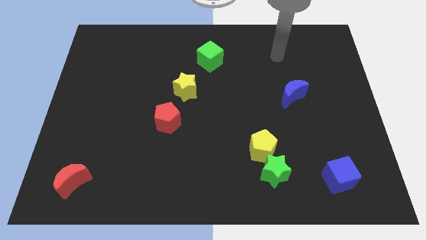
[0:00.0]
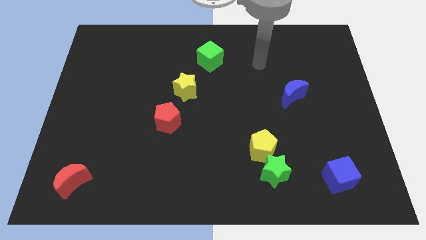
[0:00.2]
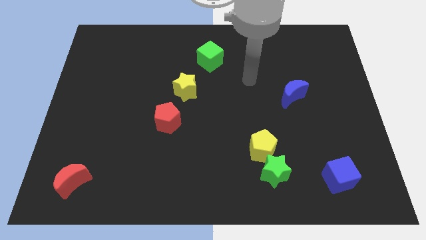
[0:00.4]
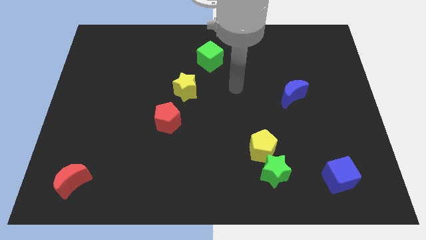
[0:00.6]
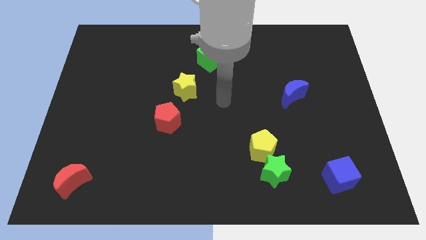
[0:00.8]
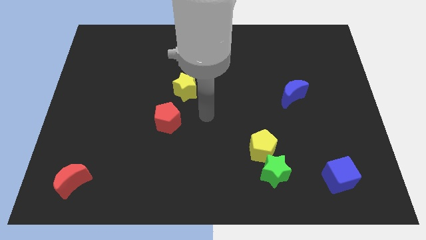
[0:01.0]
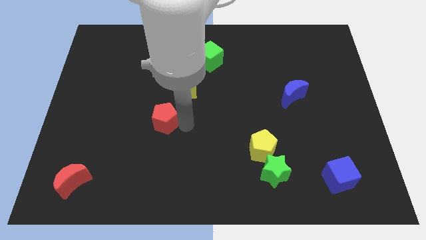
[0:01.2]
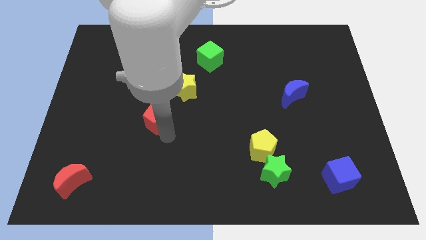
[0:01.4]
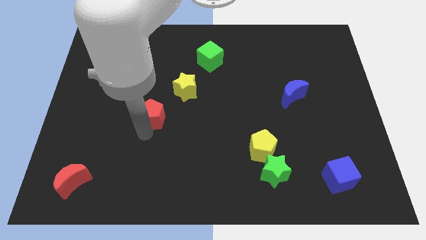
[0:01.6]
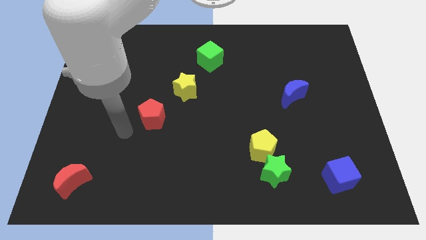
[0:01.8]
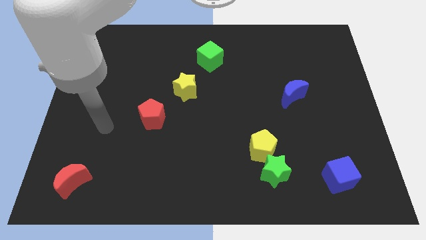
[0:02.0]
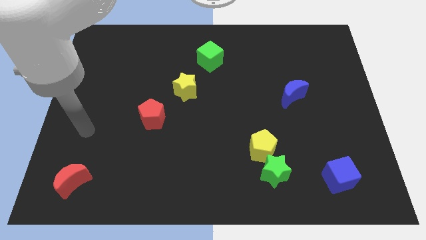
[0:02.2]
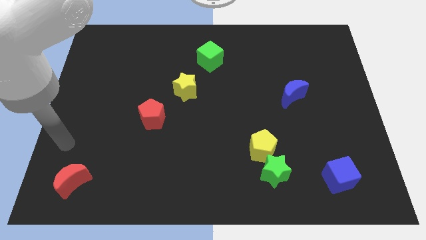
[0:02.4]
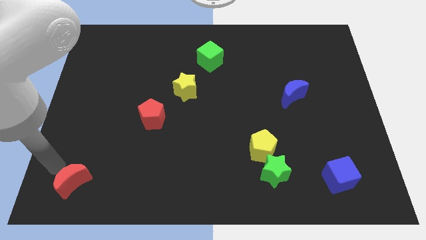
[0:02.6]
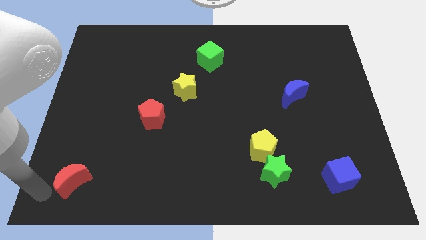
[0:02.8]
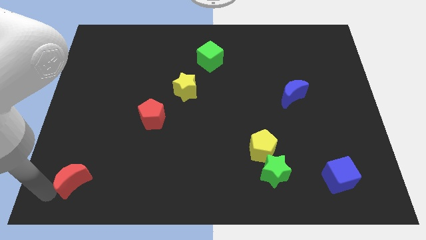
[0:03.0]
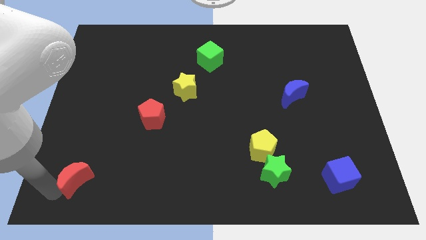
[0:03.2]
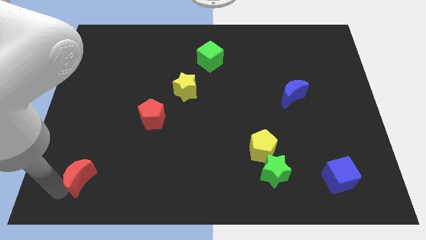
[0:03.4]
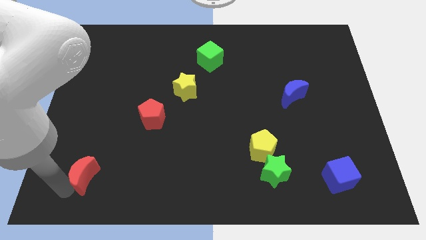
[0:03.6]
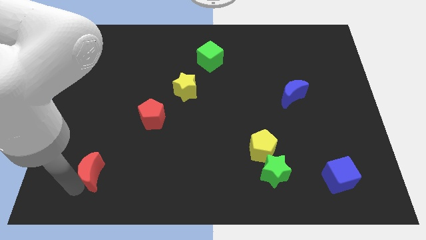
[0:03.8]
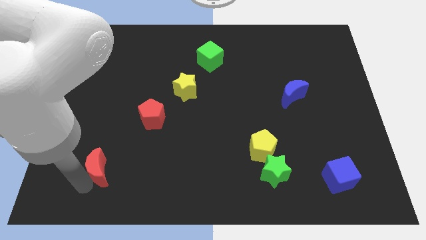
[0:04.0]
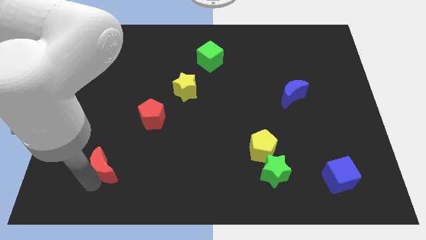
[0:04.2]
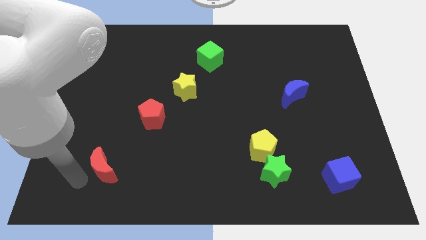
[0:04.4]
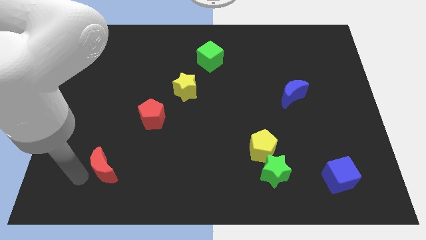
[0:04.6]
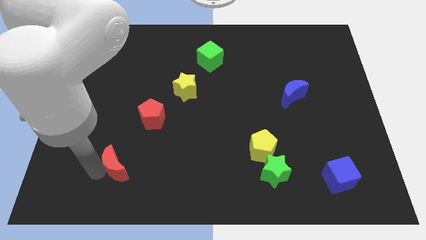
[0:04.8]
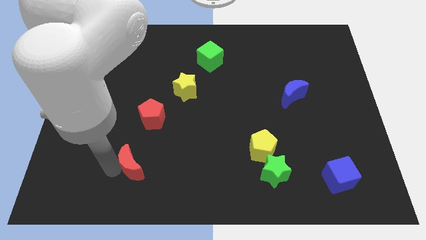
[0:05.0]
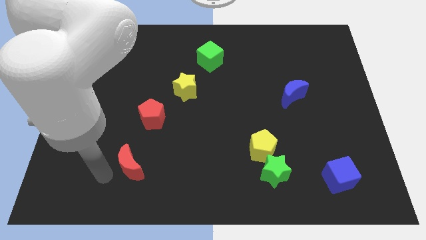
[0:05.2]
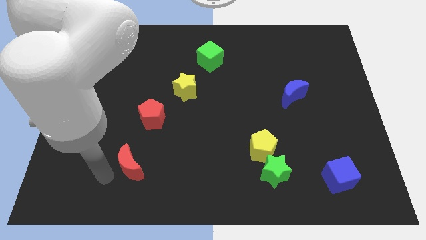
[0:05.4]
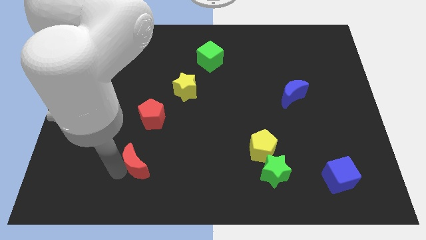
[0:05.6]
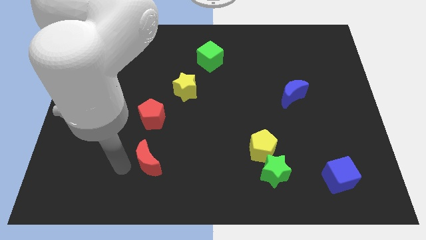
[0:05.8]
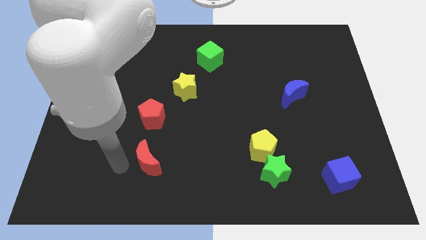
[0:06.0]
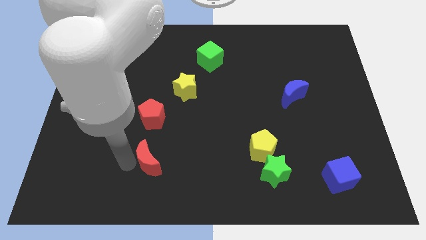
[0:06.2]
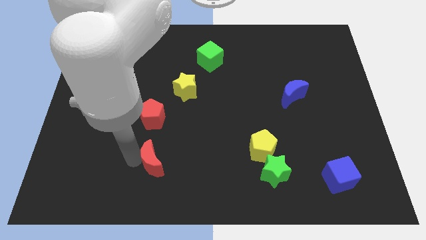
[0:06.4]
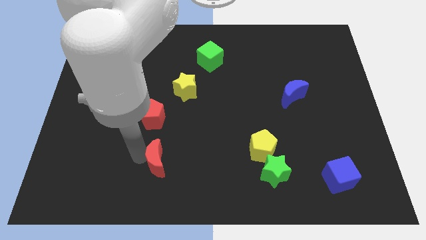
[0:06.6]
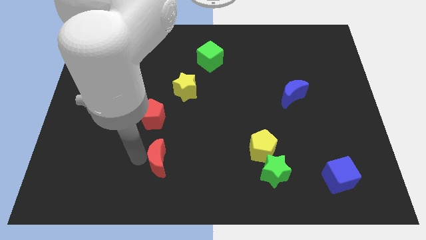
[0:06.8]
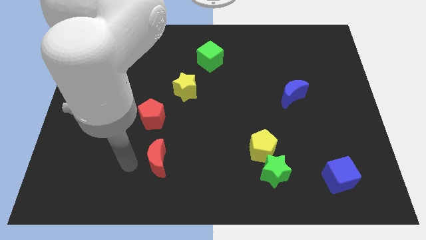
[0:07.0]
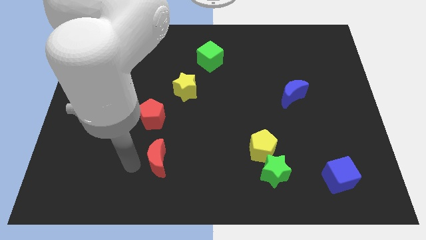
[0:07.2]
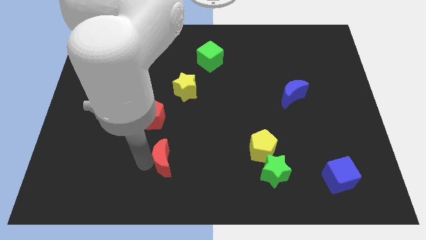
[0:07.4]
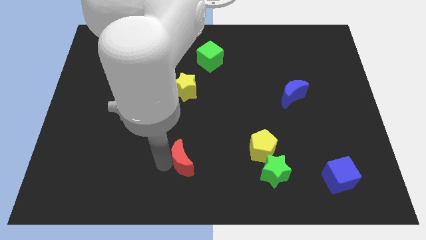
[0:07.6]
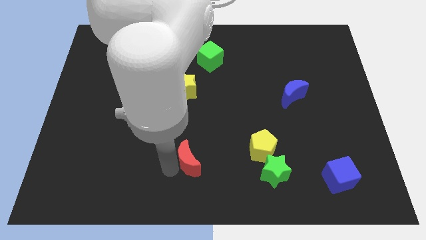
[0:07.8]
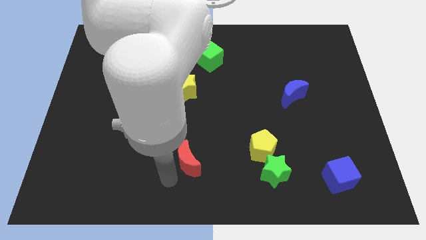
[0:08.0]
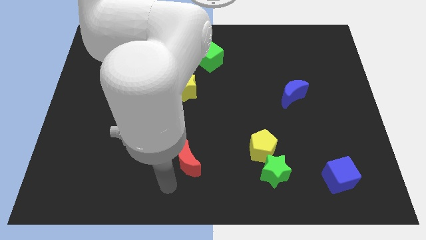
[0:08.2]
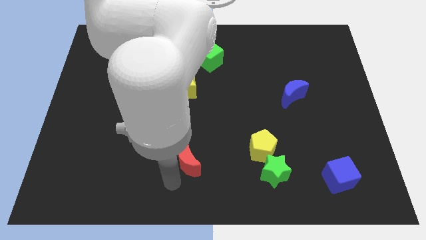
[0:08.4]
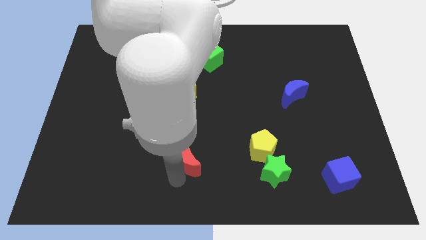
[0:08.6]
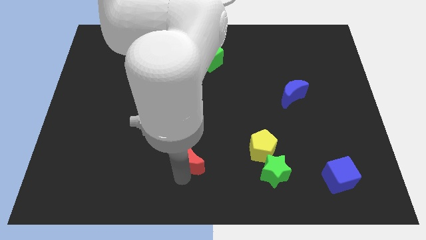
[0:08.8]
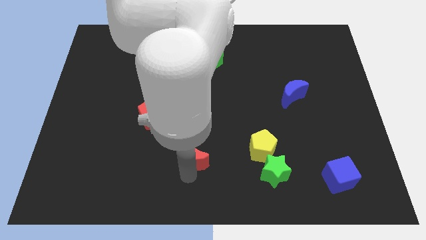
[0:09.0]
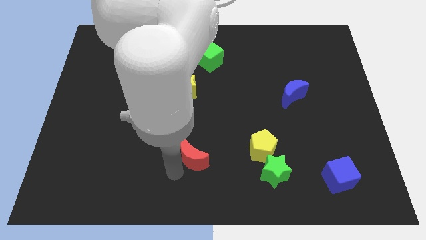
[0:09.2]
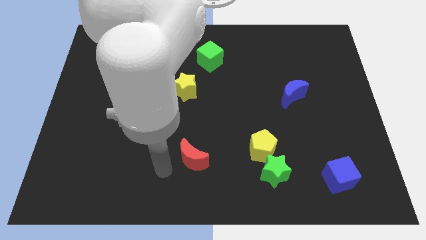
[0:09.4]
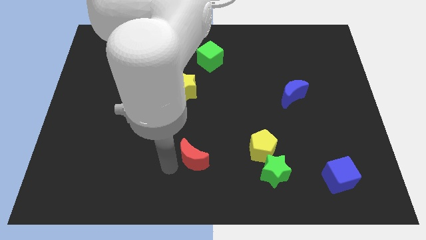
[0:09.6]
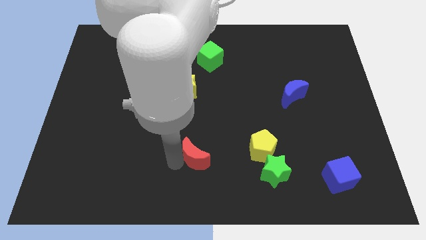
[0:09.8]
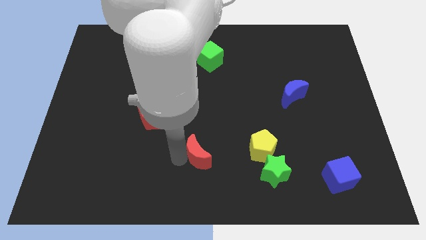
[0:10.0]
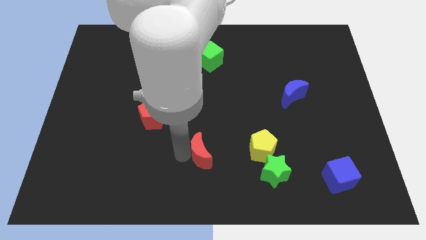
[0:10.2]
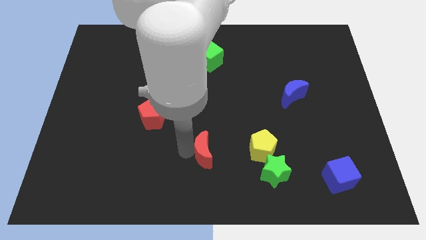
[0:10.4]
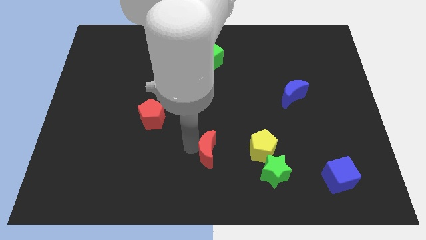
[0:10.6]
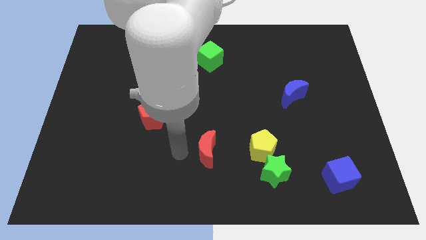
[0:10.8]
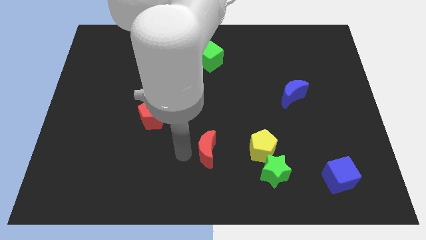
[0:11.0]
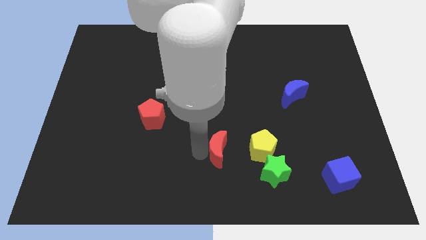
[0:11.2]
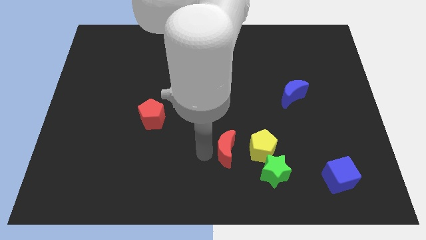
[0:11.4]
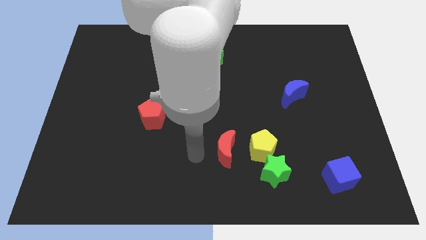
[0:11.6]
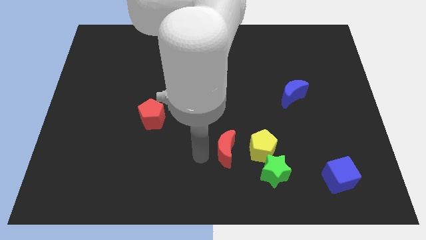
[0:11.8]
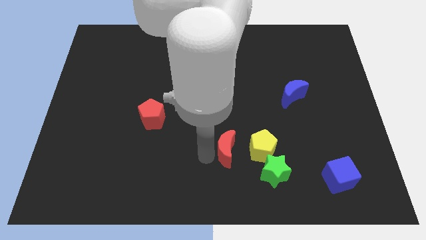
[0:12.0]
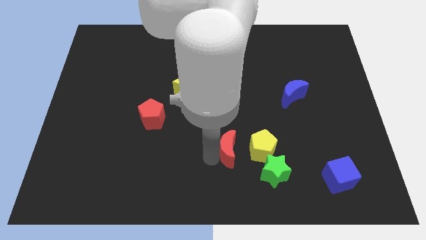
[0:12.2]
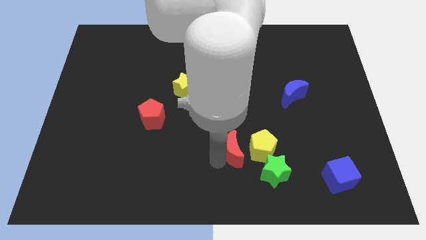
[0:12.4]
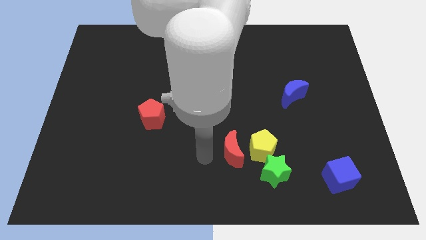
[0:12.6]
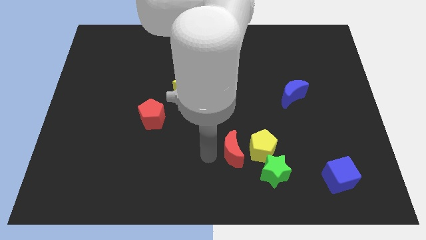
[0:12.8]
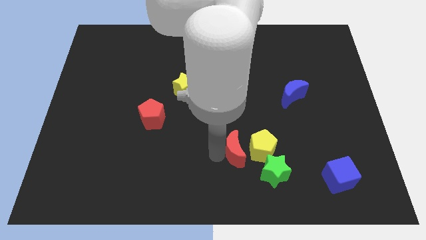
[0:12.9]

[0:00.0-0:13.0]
push the red moon towards the yellow pentagon
